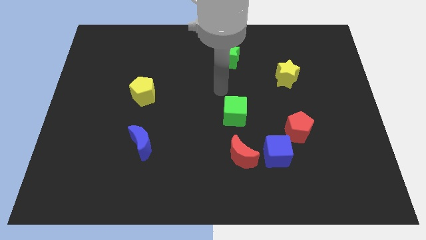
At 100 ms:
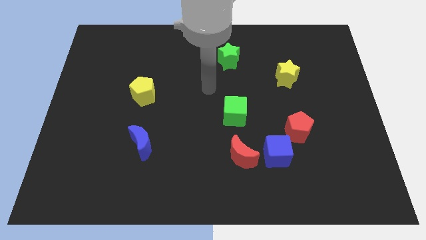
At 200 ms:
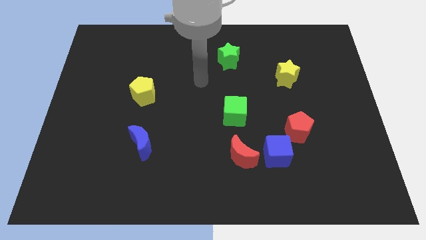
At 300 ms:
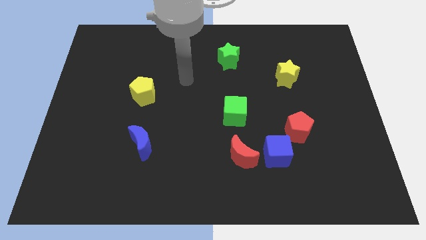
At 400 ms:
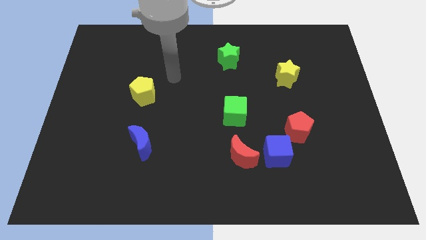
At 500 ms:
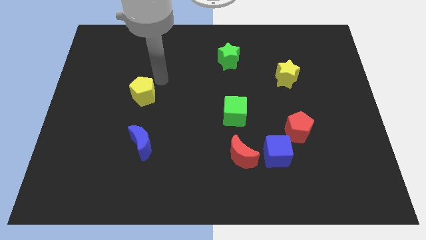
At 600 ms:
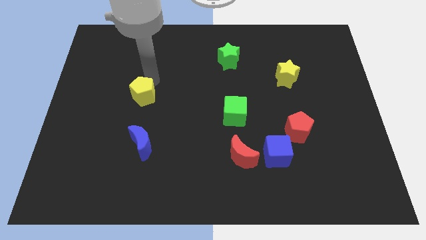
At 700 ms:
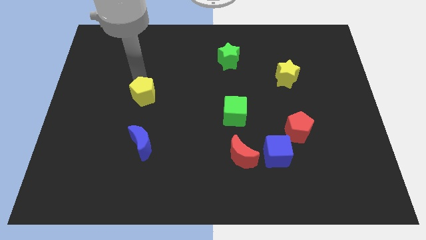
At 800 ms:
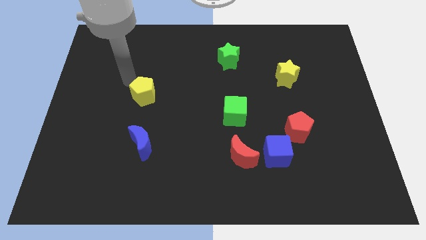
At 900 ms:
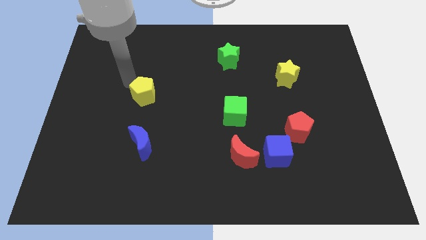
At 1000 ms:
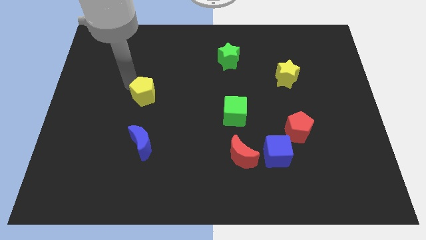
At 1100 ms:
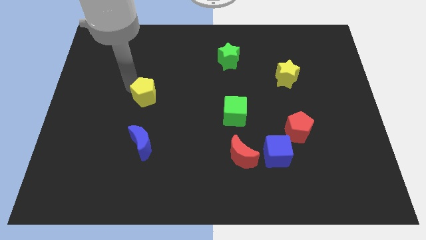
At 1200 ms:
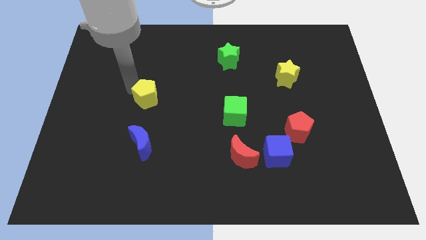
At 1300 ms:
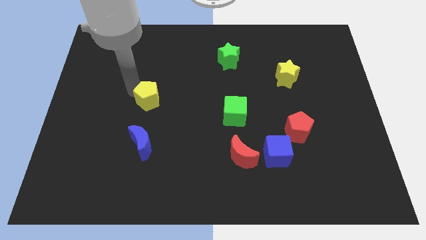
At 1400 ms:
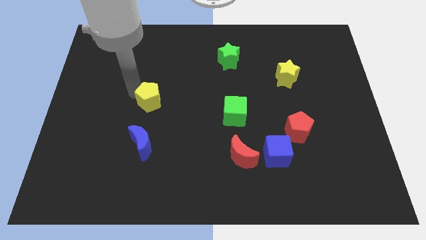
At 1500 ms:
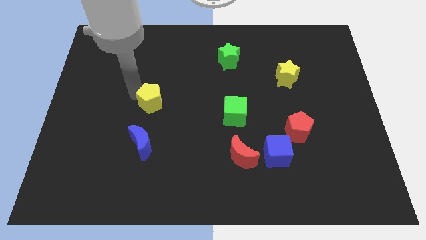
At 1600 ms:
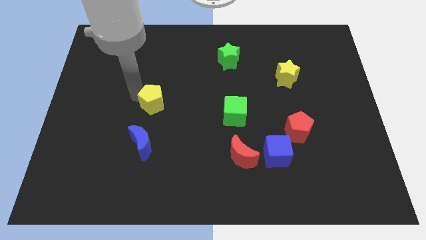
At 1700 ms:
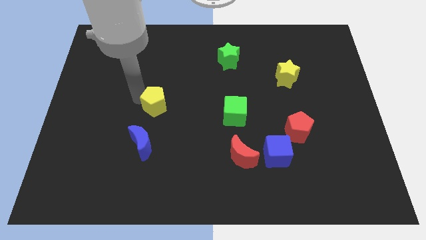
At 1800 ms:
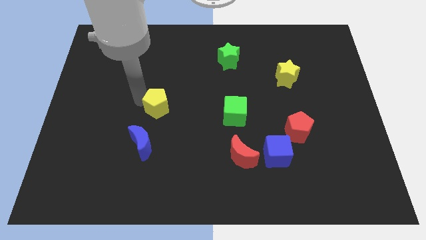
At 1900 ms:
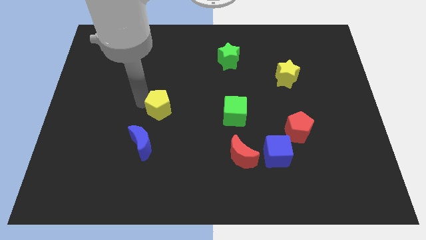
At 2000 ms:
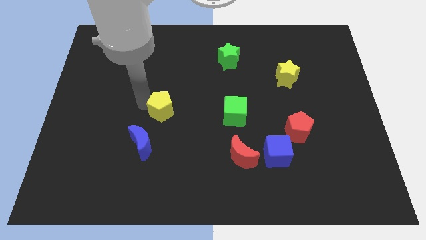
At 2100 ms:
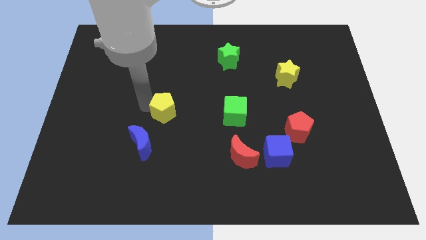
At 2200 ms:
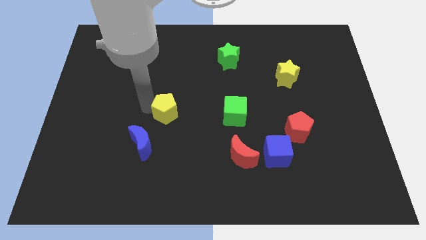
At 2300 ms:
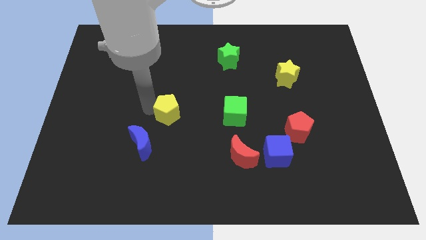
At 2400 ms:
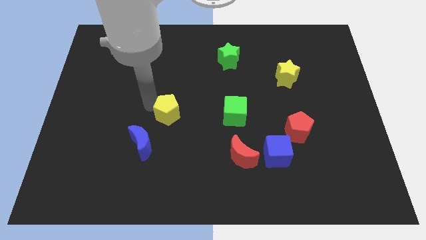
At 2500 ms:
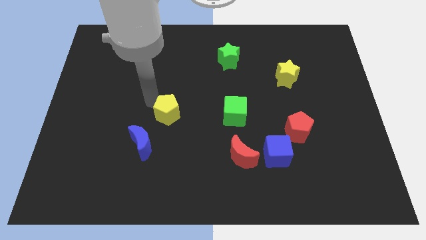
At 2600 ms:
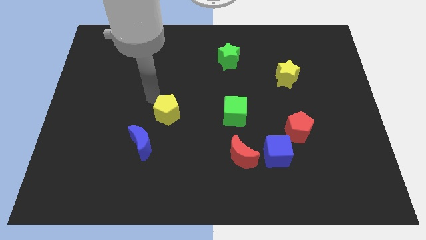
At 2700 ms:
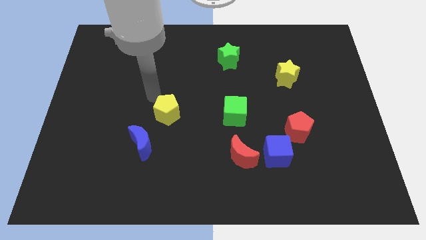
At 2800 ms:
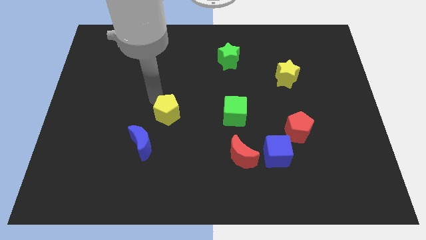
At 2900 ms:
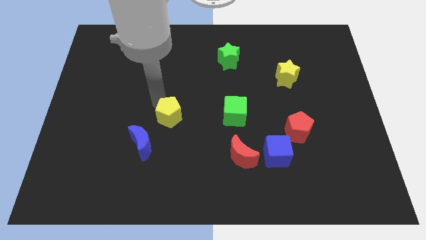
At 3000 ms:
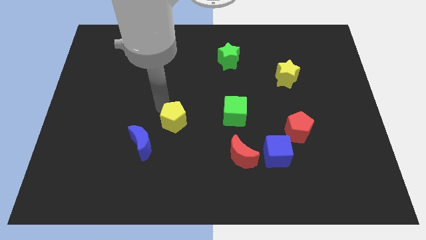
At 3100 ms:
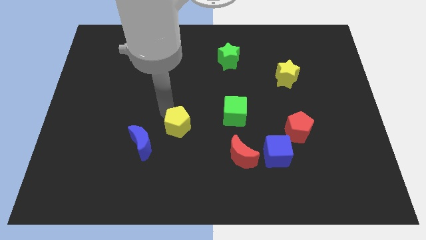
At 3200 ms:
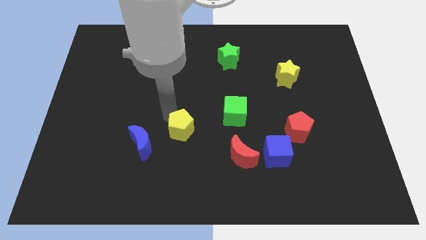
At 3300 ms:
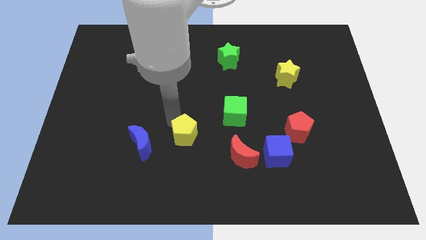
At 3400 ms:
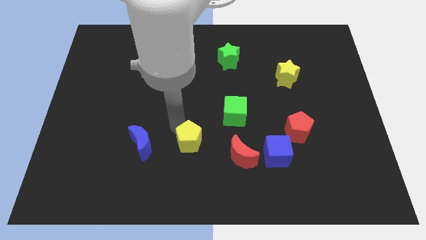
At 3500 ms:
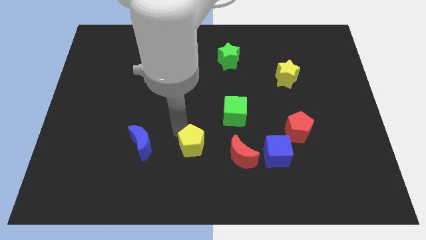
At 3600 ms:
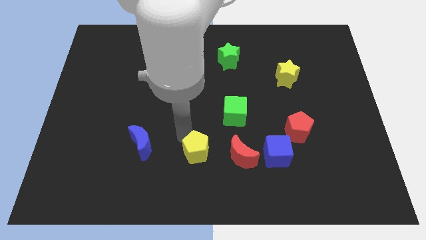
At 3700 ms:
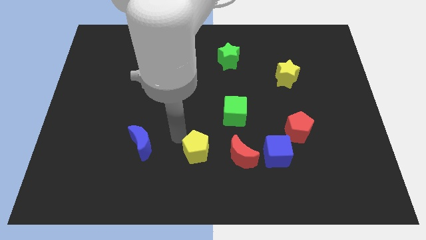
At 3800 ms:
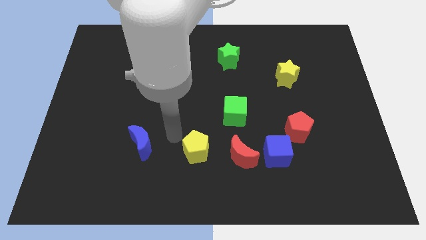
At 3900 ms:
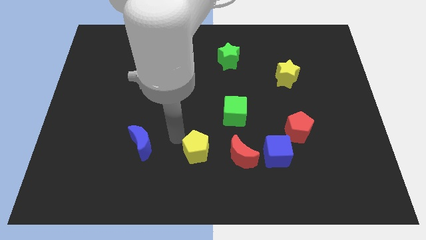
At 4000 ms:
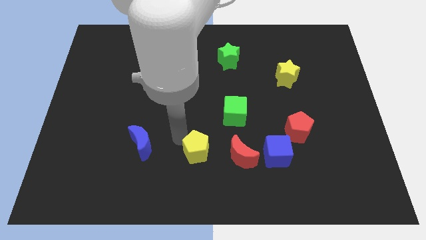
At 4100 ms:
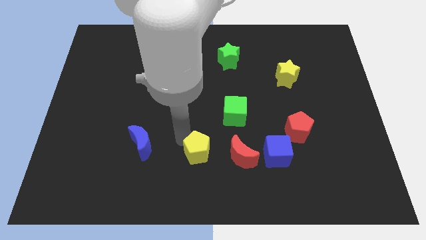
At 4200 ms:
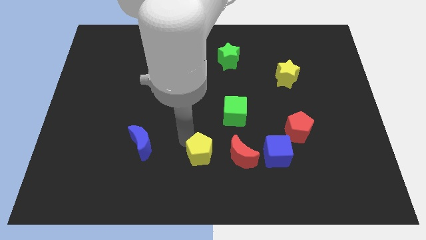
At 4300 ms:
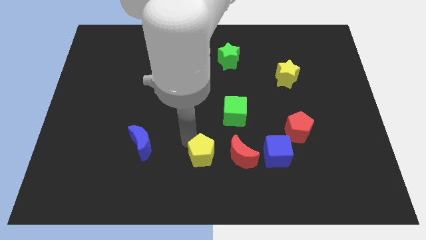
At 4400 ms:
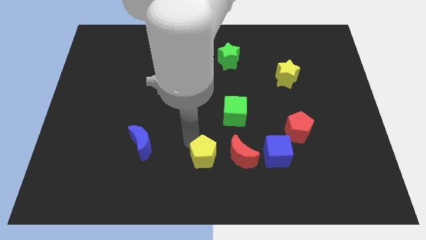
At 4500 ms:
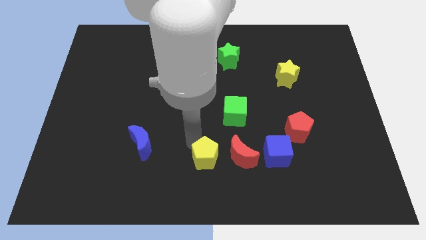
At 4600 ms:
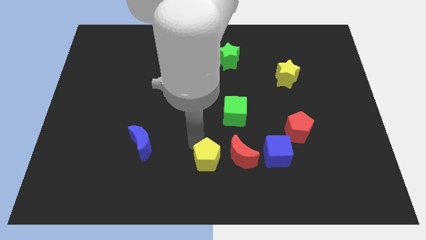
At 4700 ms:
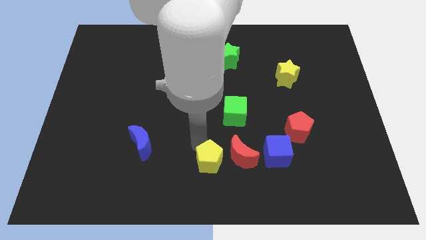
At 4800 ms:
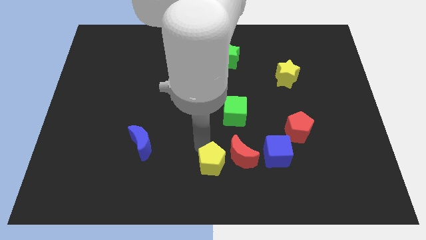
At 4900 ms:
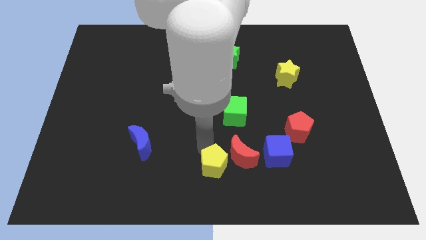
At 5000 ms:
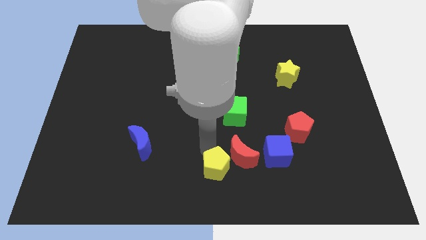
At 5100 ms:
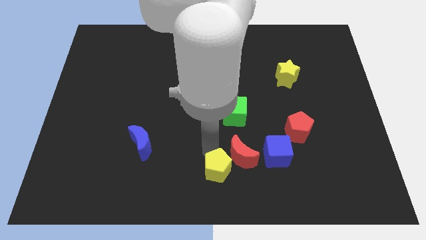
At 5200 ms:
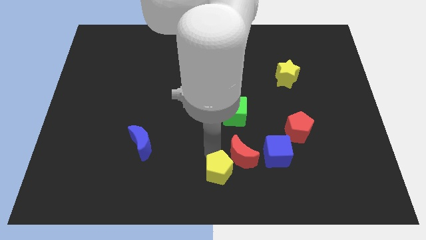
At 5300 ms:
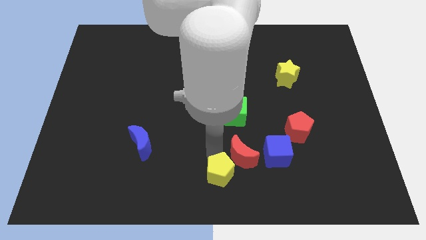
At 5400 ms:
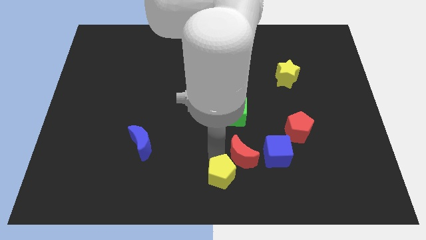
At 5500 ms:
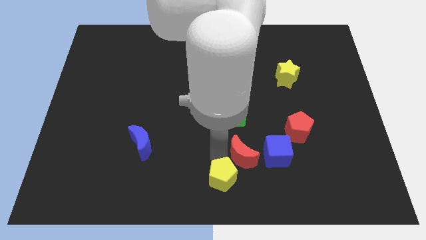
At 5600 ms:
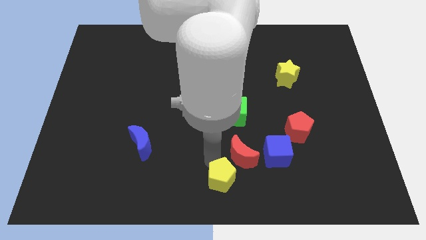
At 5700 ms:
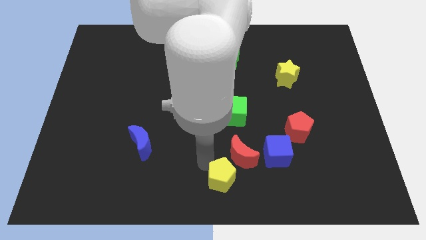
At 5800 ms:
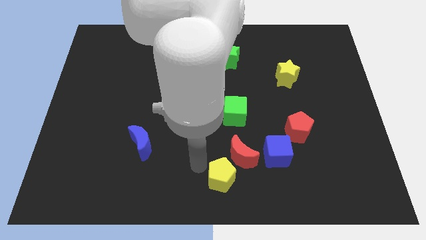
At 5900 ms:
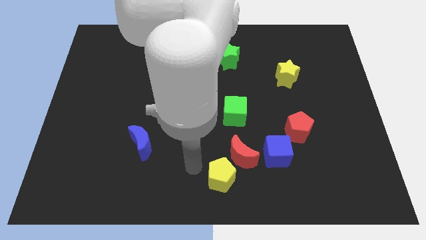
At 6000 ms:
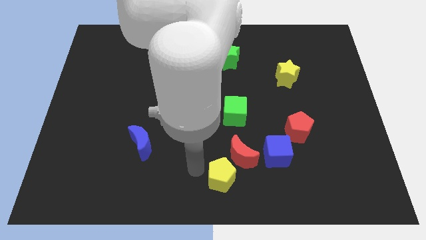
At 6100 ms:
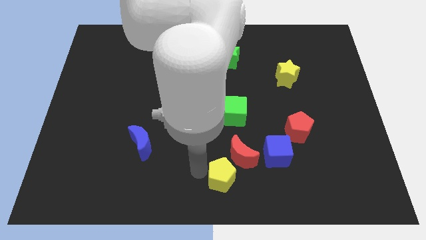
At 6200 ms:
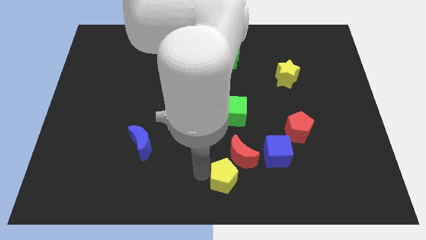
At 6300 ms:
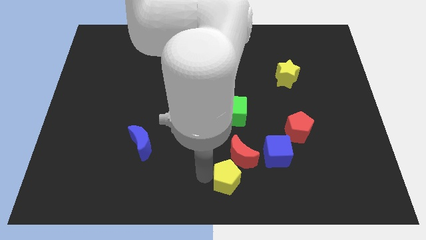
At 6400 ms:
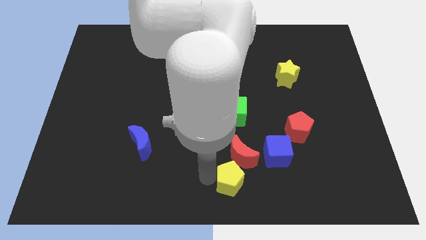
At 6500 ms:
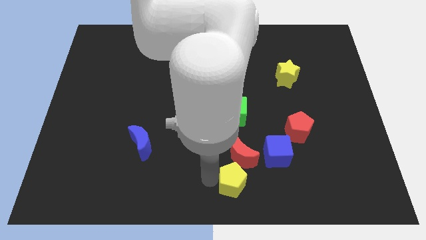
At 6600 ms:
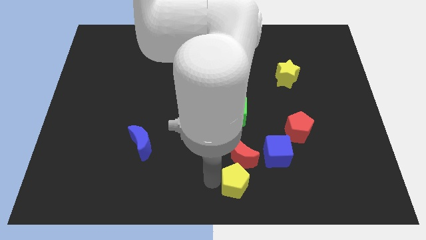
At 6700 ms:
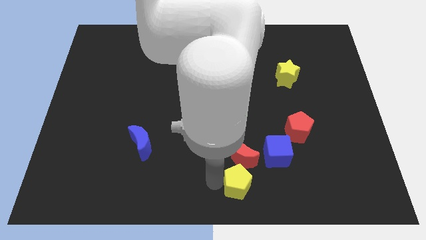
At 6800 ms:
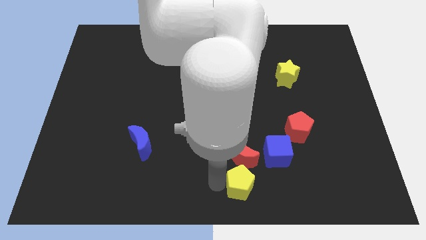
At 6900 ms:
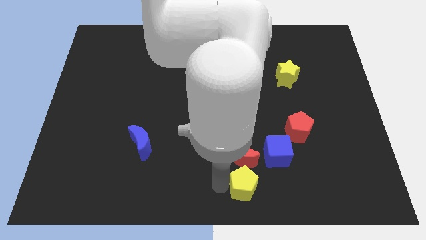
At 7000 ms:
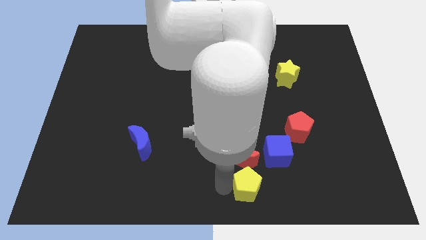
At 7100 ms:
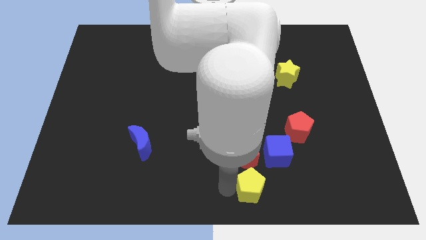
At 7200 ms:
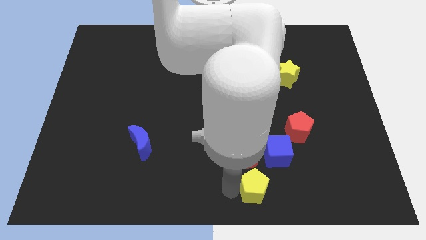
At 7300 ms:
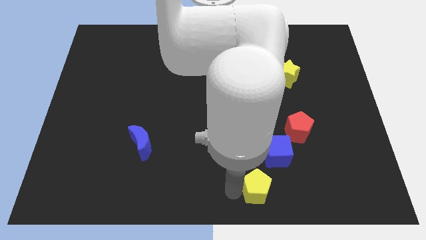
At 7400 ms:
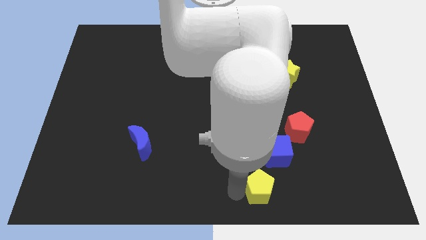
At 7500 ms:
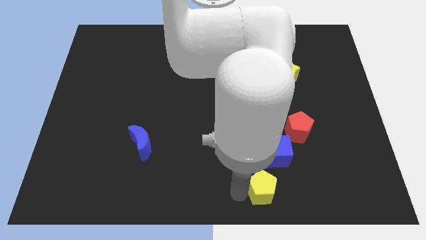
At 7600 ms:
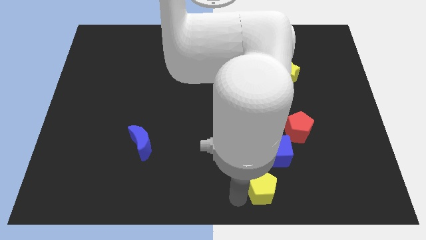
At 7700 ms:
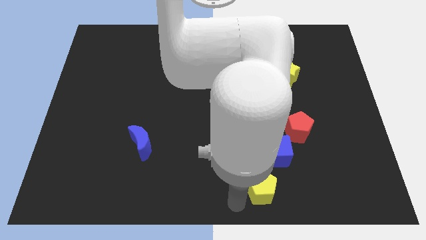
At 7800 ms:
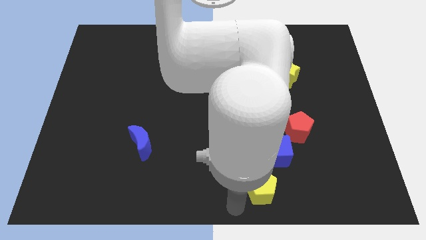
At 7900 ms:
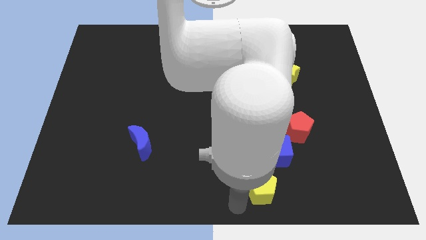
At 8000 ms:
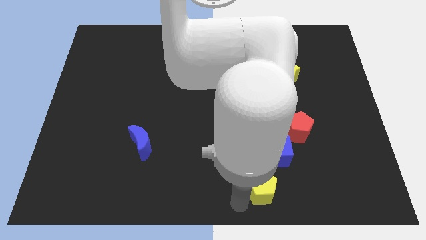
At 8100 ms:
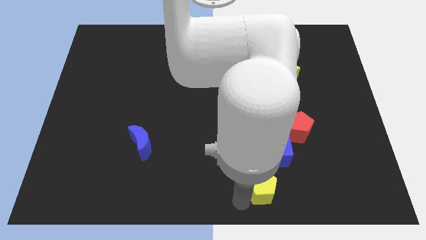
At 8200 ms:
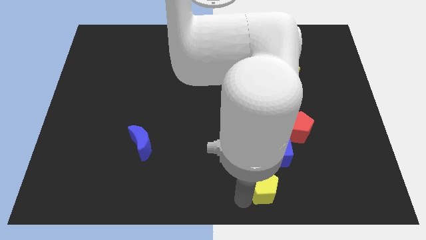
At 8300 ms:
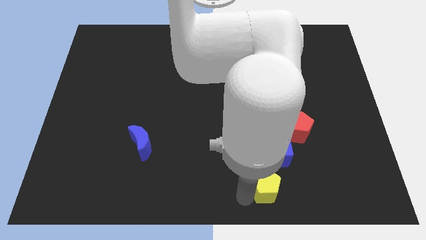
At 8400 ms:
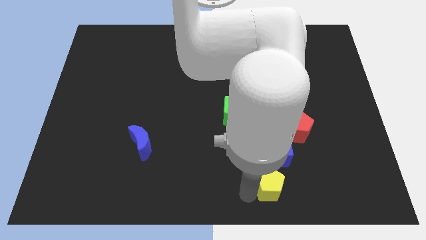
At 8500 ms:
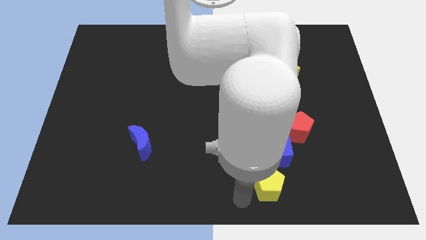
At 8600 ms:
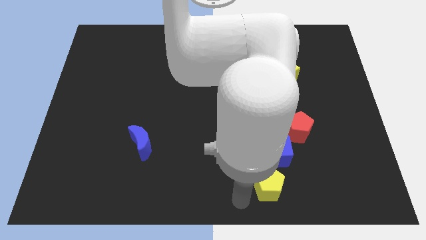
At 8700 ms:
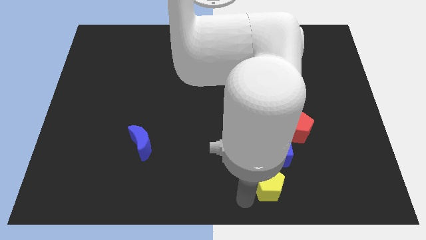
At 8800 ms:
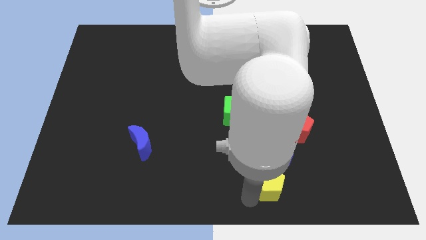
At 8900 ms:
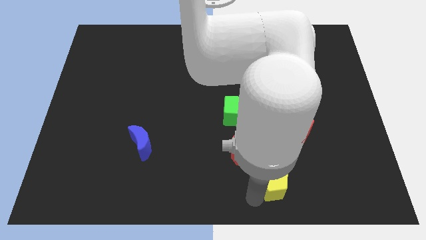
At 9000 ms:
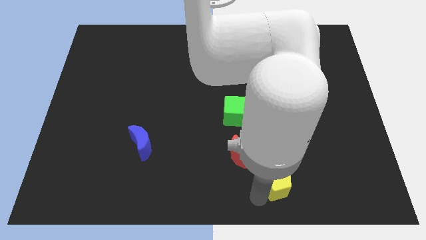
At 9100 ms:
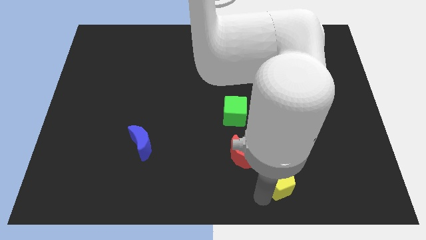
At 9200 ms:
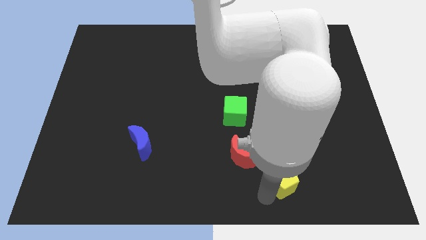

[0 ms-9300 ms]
slide the yellow pentagon below the red pentagon
